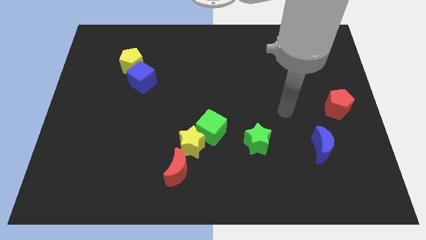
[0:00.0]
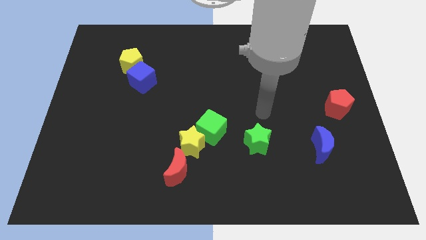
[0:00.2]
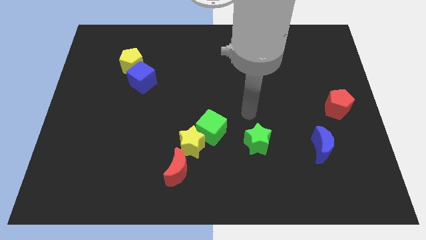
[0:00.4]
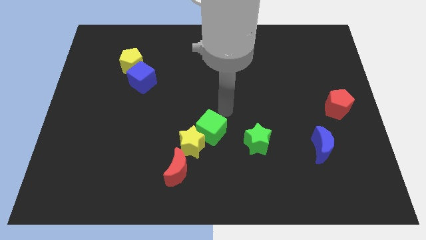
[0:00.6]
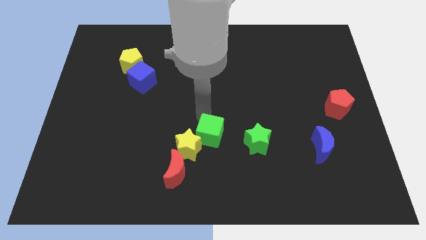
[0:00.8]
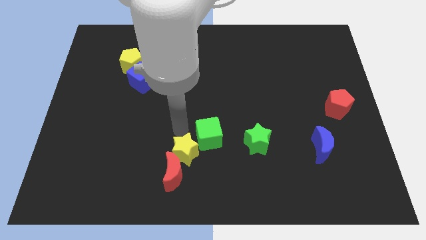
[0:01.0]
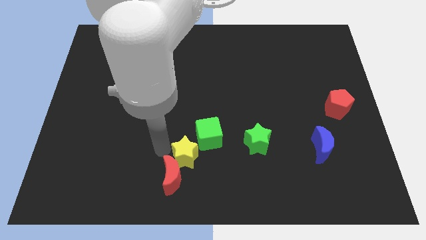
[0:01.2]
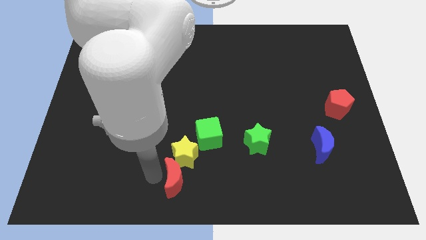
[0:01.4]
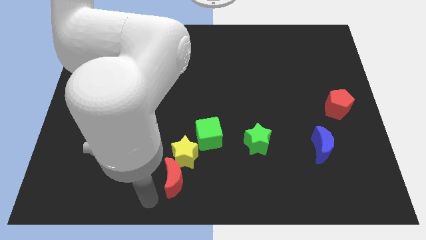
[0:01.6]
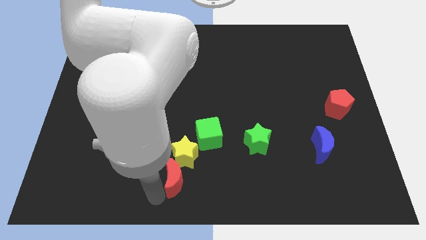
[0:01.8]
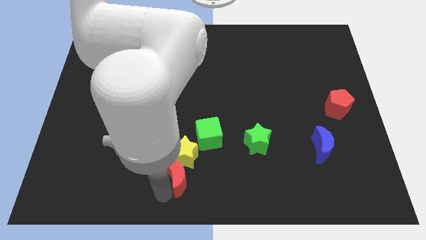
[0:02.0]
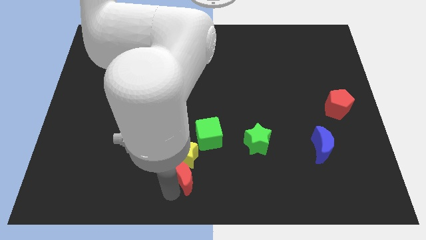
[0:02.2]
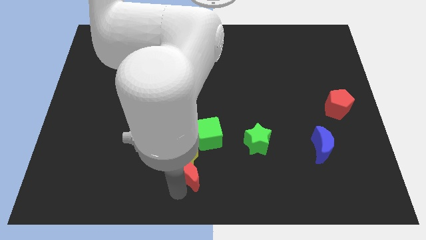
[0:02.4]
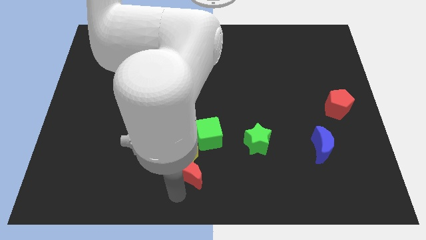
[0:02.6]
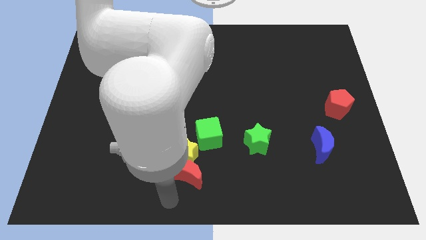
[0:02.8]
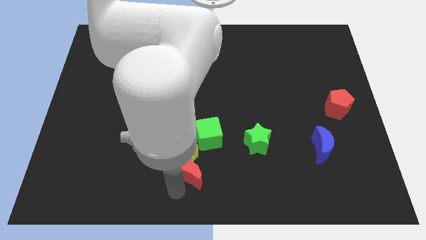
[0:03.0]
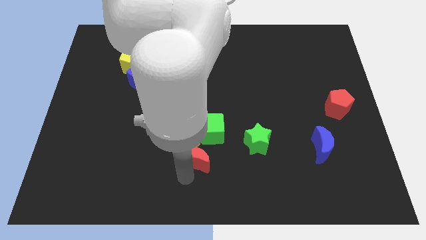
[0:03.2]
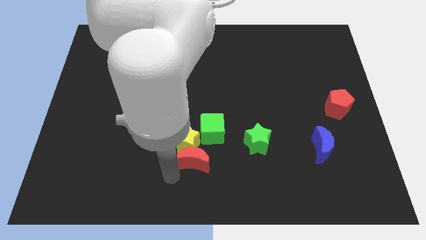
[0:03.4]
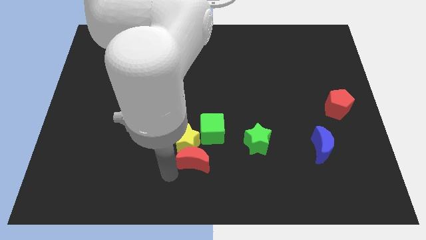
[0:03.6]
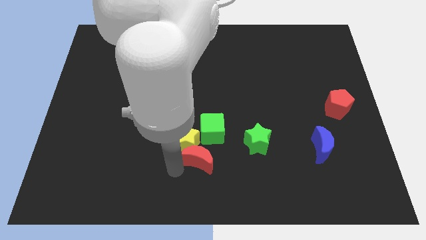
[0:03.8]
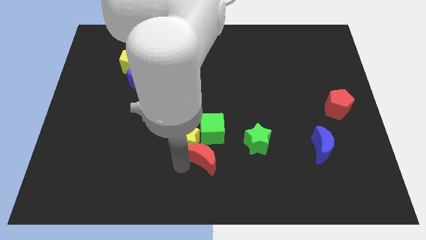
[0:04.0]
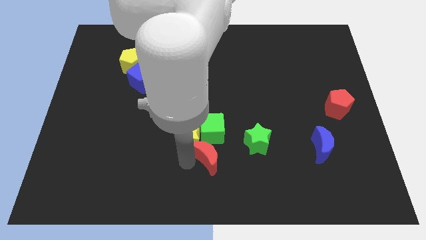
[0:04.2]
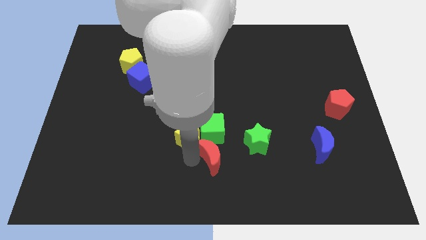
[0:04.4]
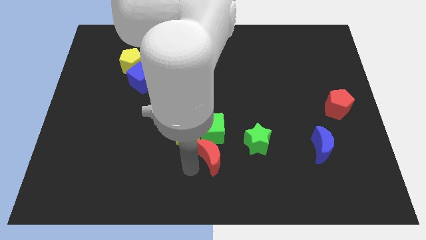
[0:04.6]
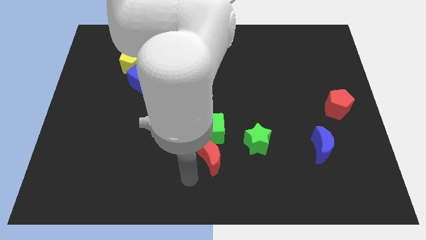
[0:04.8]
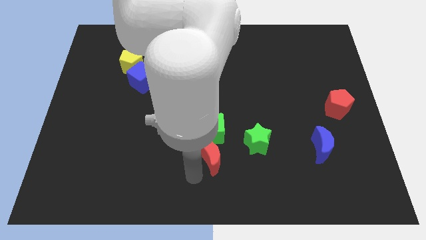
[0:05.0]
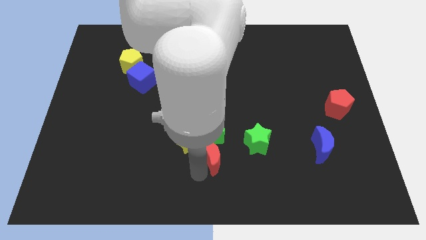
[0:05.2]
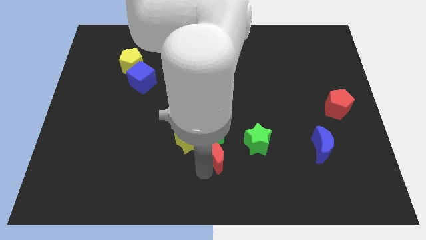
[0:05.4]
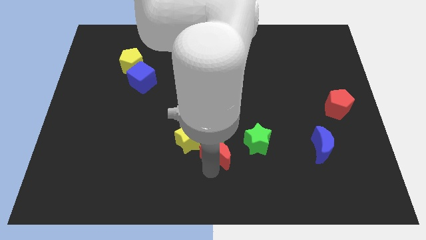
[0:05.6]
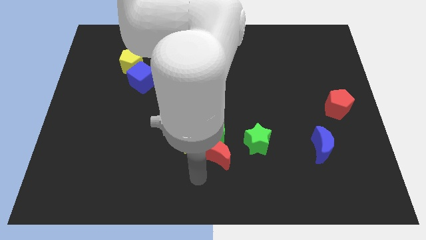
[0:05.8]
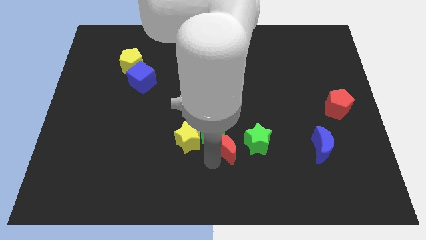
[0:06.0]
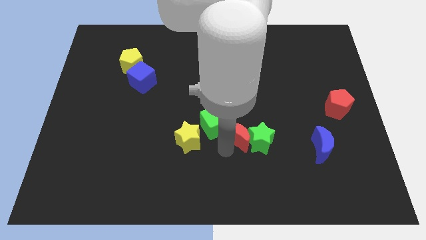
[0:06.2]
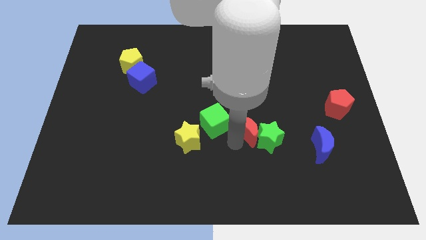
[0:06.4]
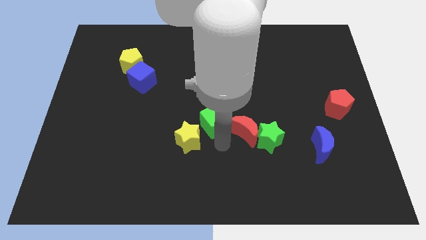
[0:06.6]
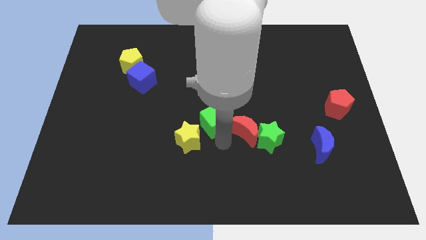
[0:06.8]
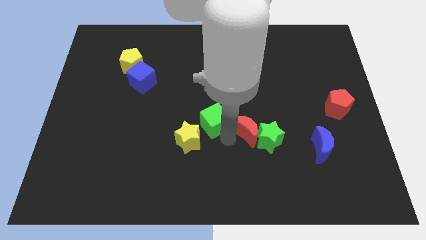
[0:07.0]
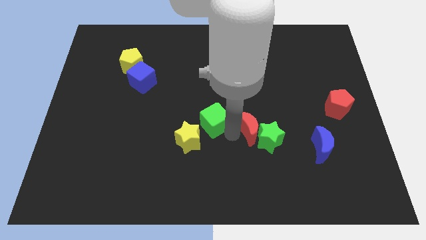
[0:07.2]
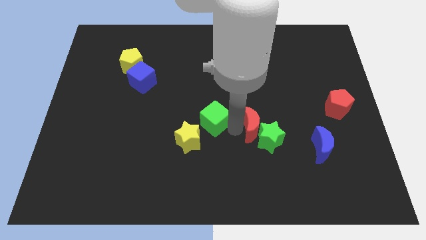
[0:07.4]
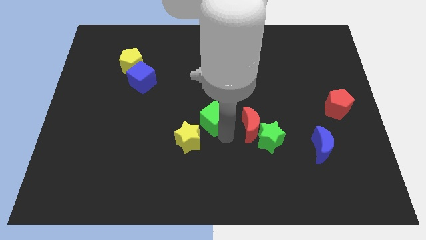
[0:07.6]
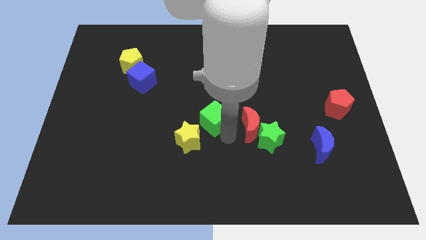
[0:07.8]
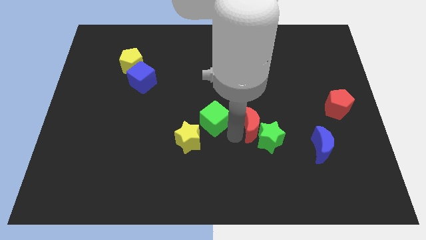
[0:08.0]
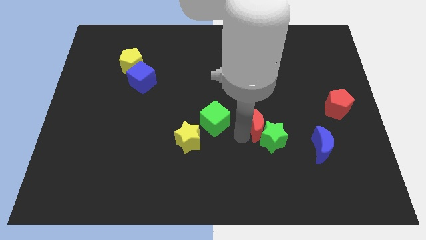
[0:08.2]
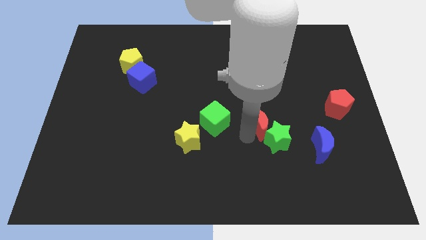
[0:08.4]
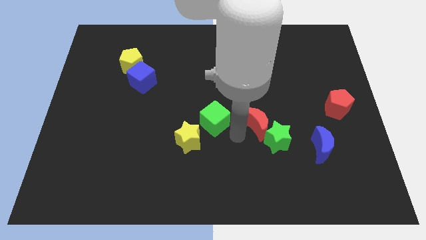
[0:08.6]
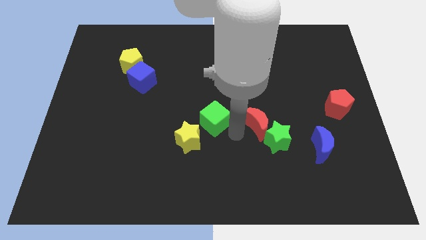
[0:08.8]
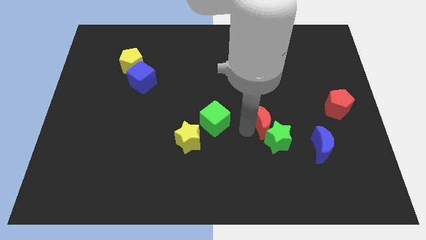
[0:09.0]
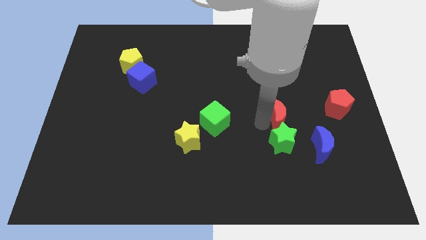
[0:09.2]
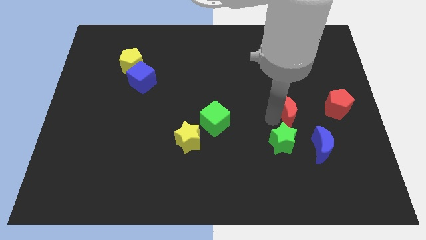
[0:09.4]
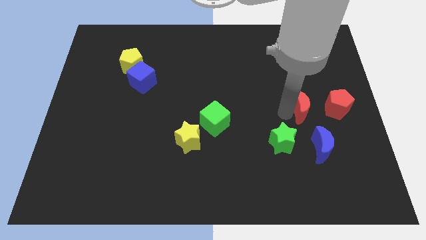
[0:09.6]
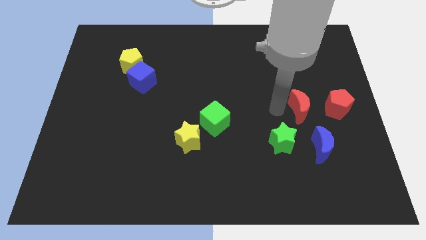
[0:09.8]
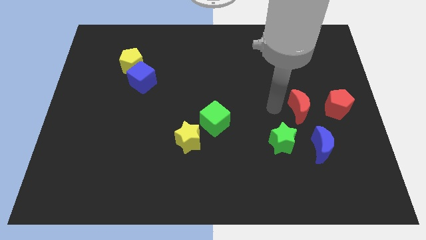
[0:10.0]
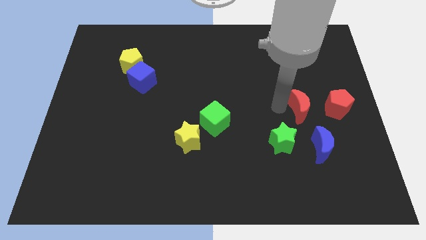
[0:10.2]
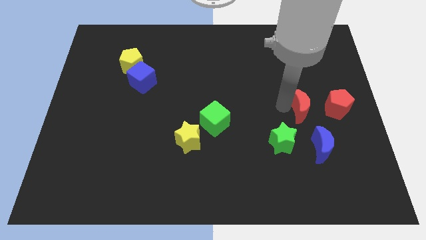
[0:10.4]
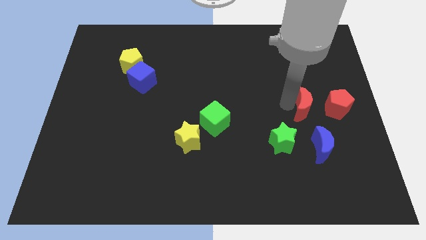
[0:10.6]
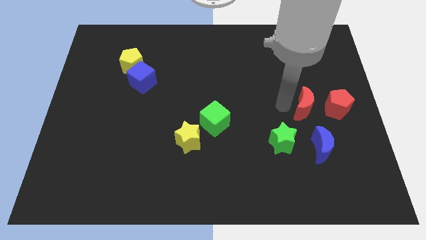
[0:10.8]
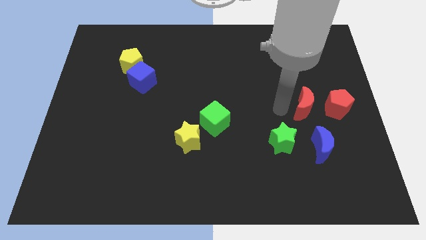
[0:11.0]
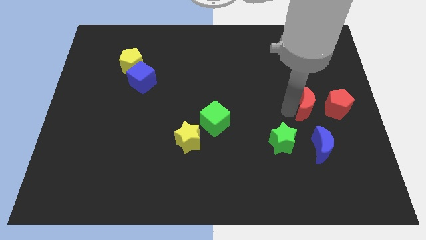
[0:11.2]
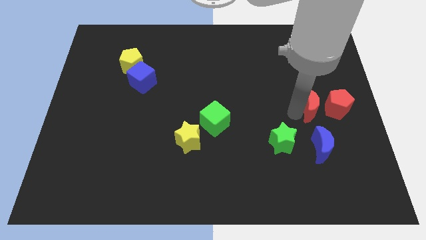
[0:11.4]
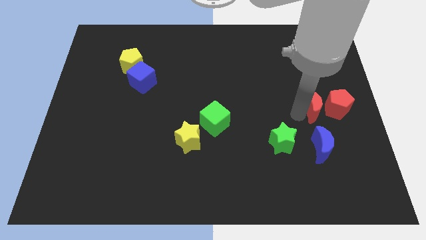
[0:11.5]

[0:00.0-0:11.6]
push the red moon close to the red pentagon

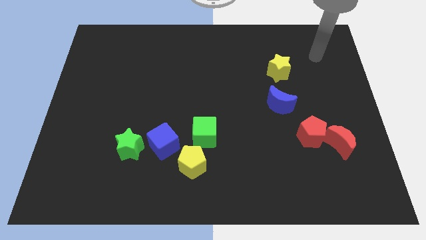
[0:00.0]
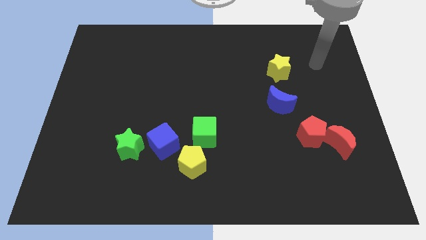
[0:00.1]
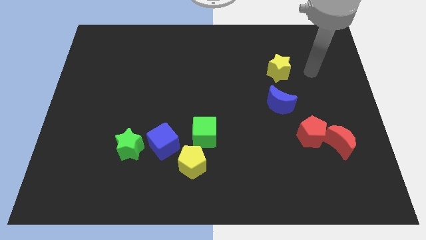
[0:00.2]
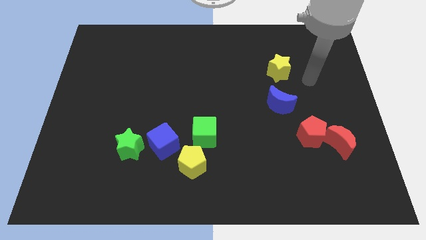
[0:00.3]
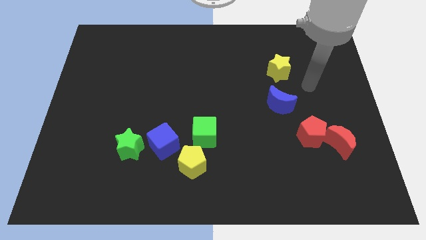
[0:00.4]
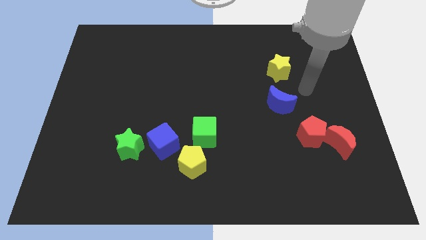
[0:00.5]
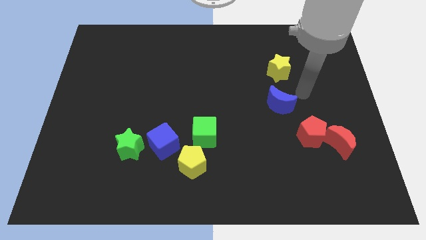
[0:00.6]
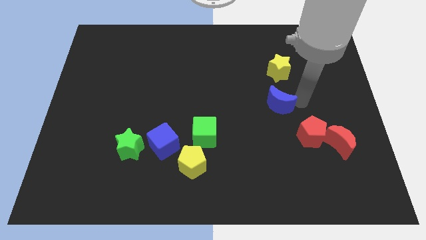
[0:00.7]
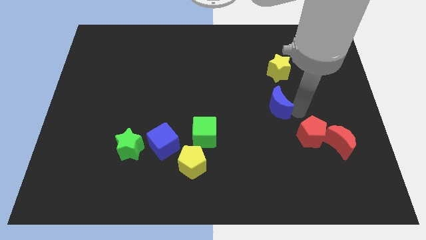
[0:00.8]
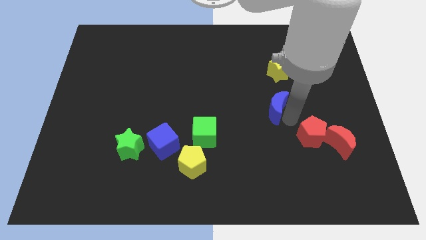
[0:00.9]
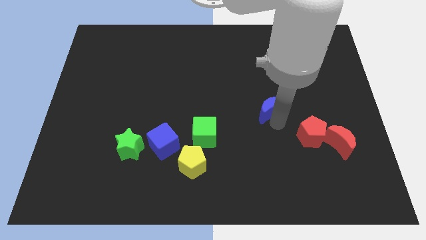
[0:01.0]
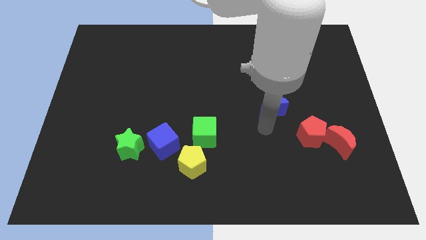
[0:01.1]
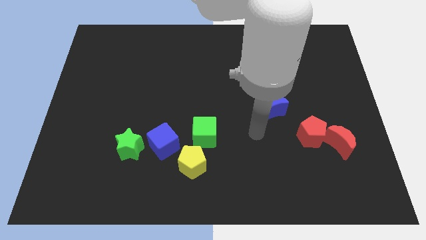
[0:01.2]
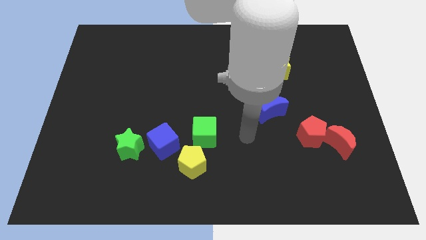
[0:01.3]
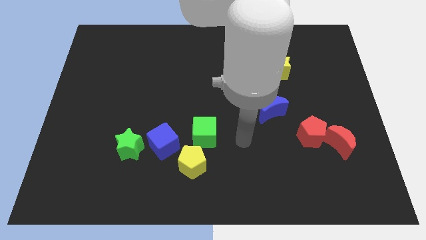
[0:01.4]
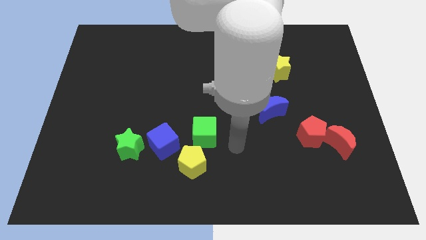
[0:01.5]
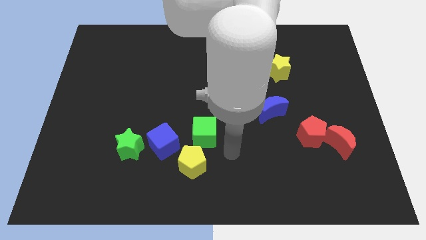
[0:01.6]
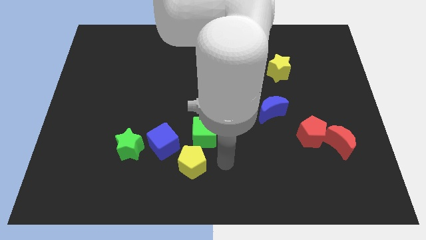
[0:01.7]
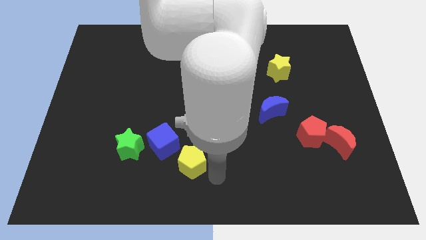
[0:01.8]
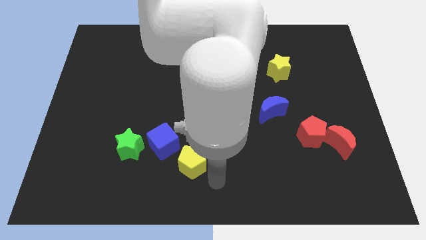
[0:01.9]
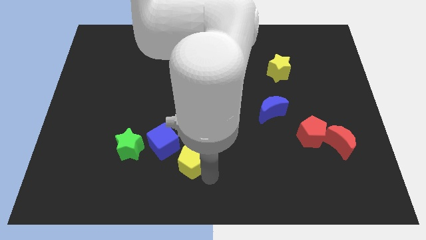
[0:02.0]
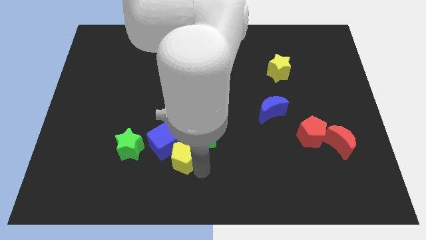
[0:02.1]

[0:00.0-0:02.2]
push the yellow pentagon next to the blue cube
